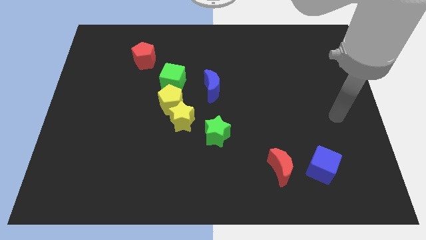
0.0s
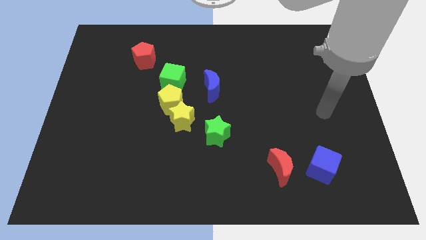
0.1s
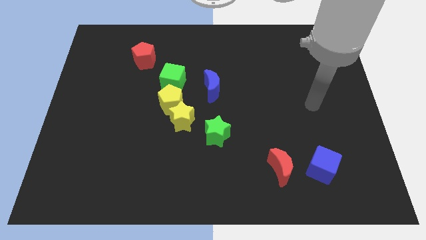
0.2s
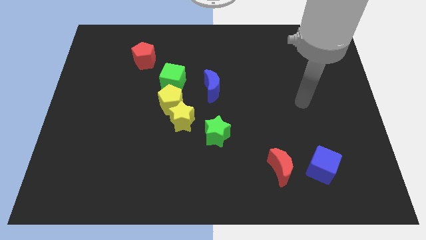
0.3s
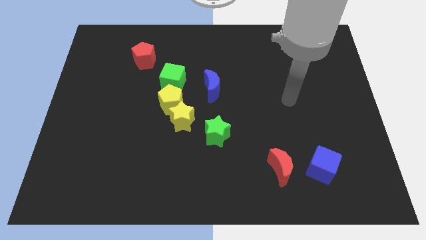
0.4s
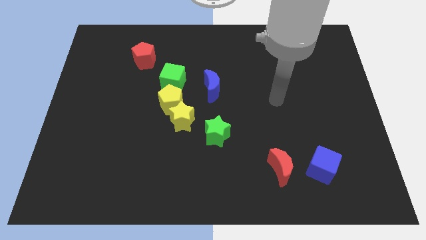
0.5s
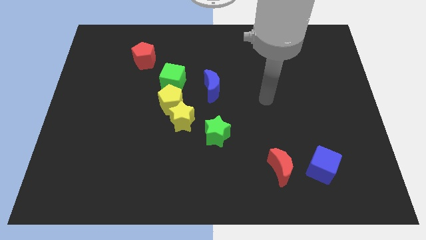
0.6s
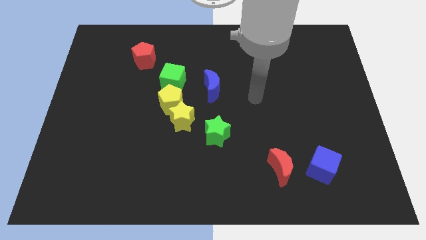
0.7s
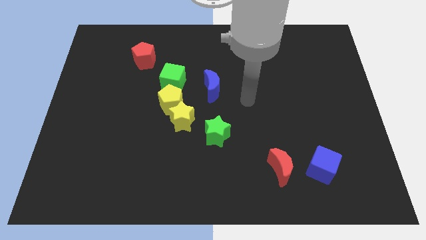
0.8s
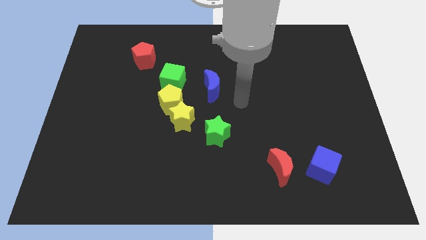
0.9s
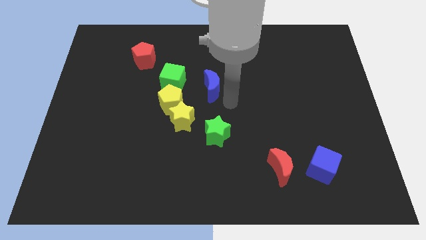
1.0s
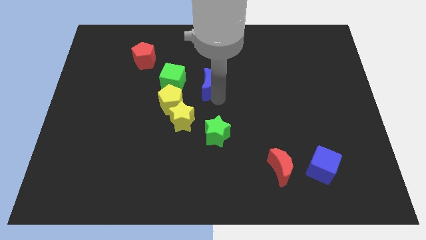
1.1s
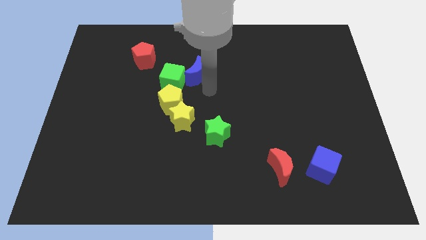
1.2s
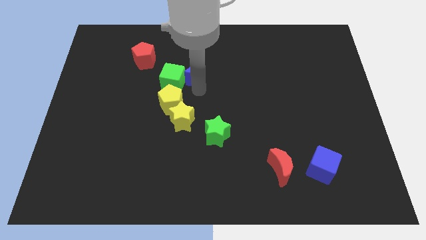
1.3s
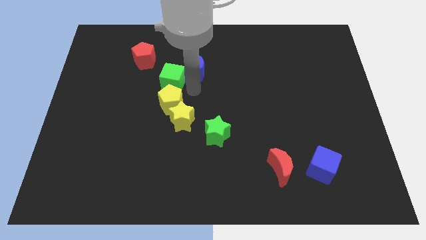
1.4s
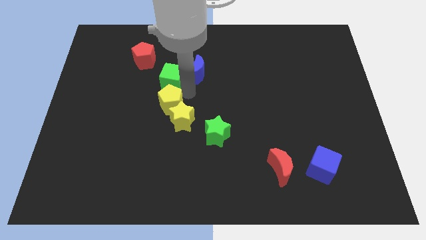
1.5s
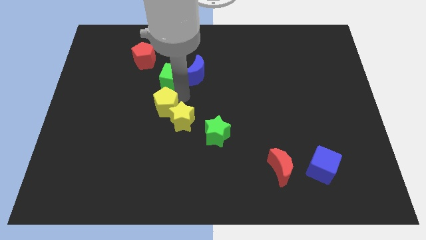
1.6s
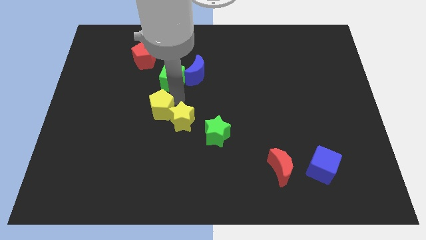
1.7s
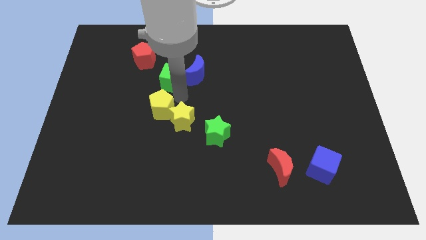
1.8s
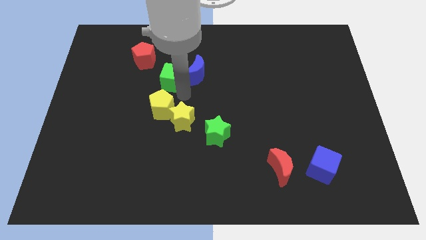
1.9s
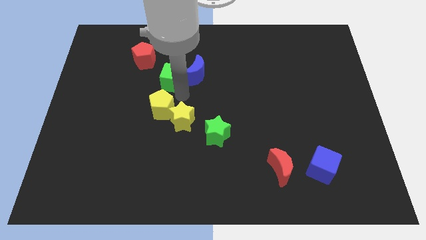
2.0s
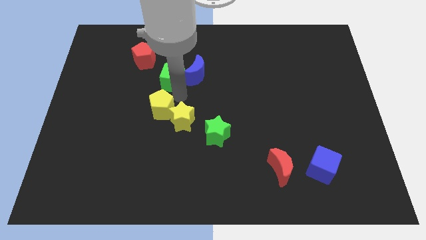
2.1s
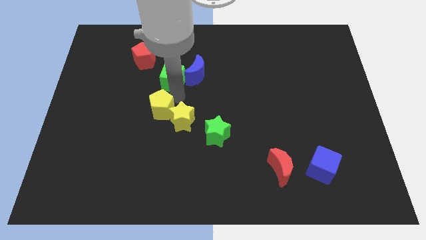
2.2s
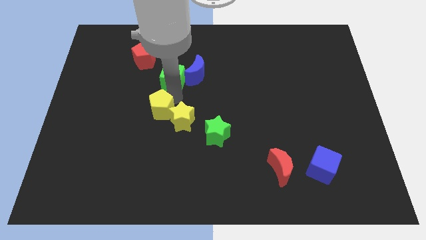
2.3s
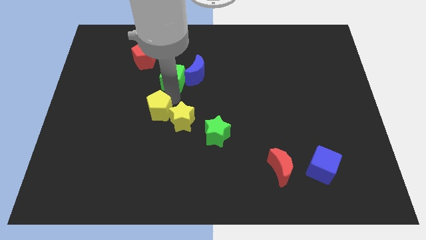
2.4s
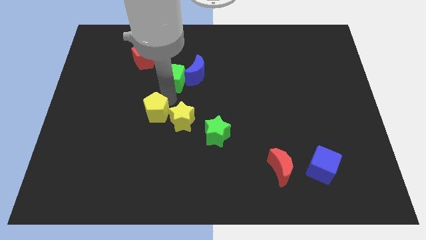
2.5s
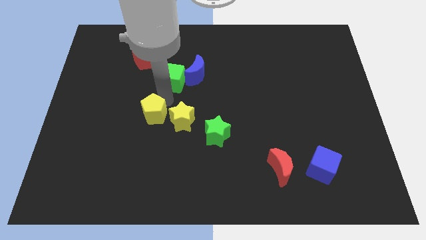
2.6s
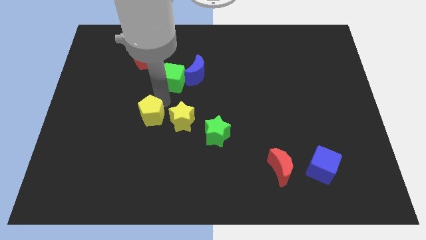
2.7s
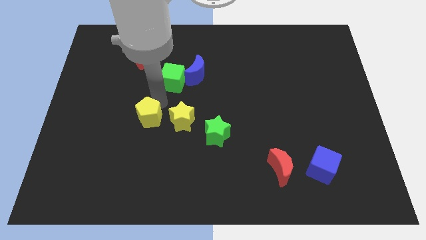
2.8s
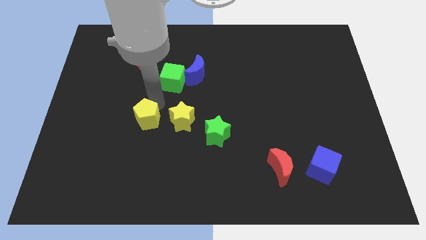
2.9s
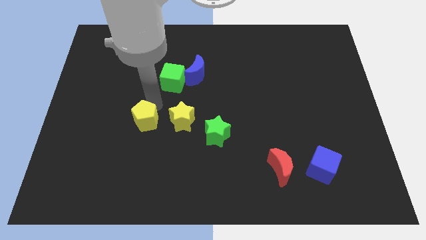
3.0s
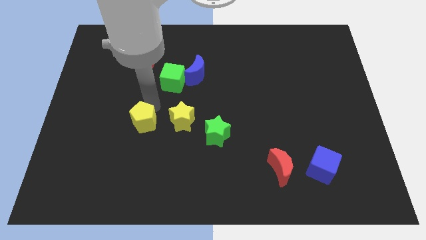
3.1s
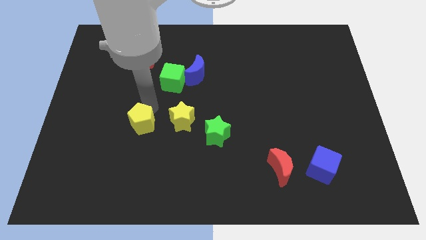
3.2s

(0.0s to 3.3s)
move the yellow pentagon away from the yellow star and green cube

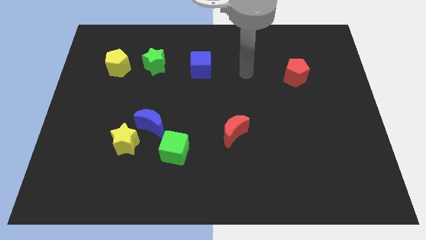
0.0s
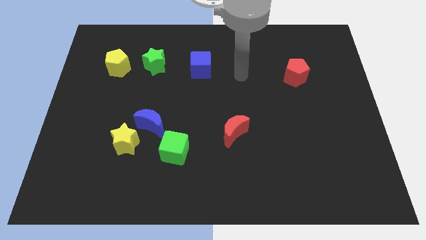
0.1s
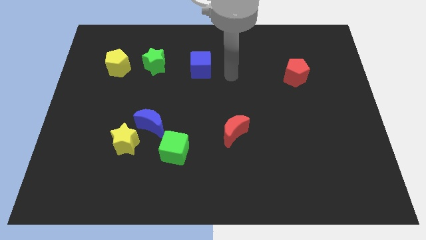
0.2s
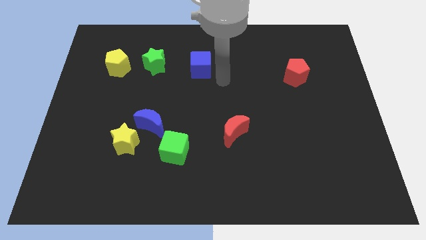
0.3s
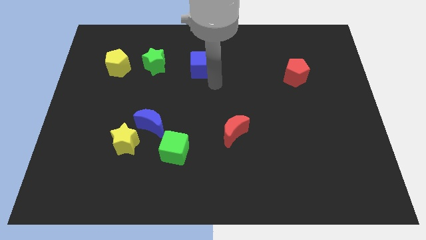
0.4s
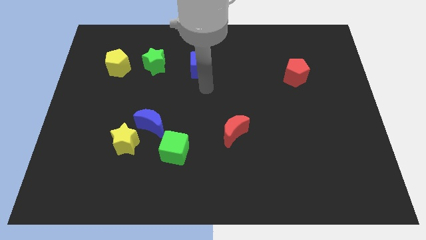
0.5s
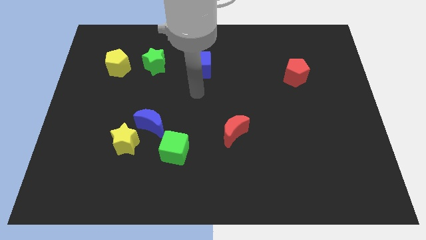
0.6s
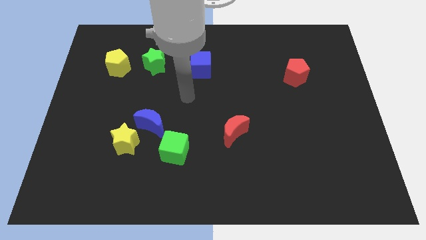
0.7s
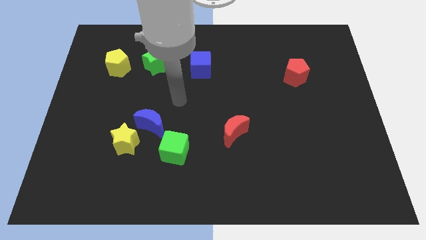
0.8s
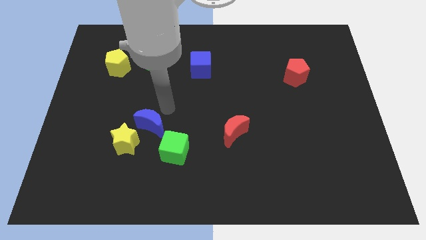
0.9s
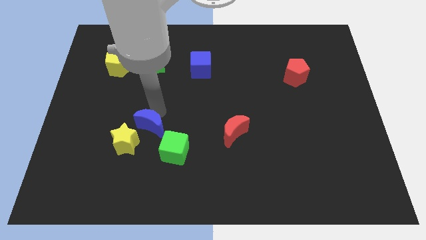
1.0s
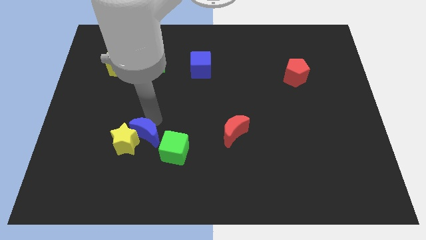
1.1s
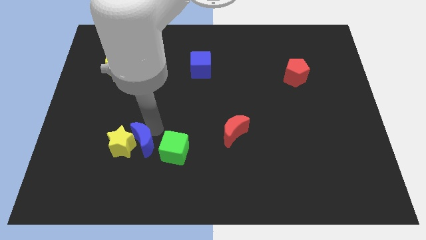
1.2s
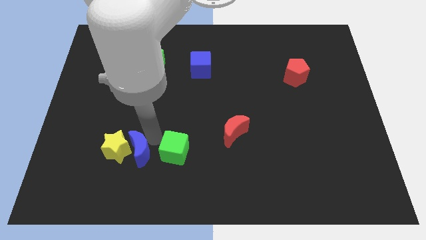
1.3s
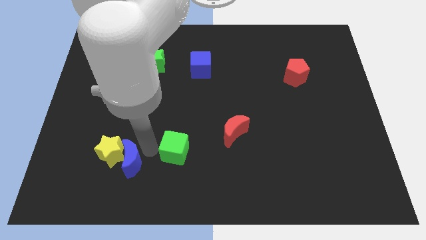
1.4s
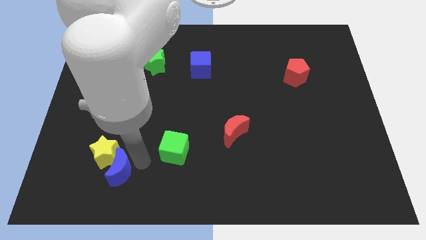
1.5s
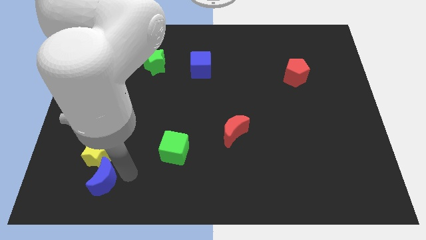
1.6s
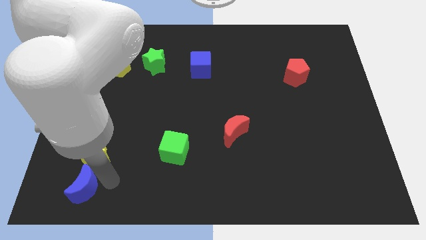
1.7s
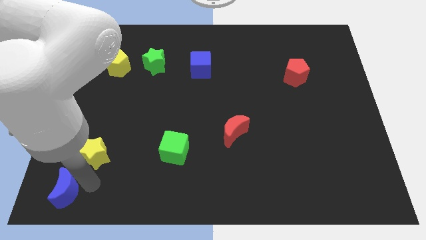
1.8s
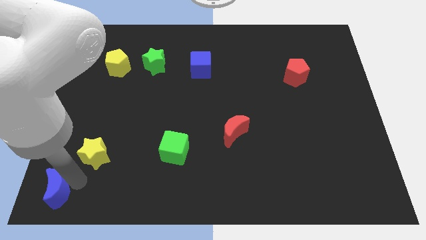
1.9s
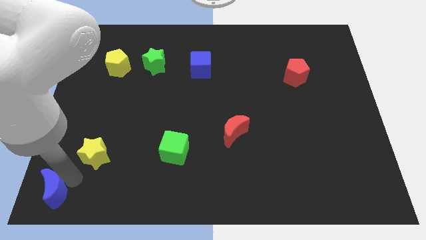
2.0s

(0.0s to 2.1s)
separate the yellow star from the blue moon

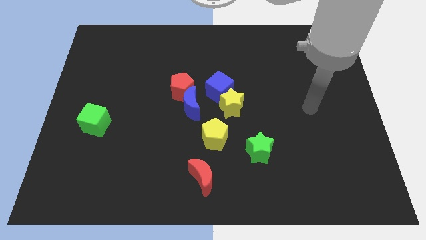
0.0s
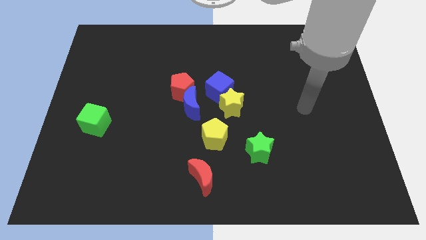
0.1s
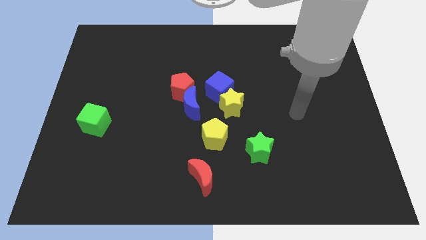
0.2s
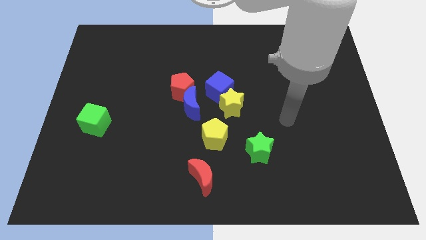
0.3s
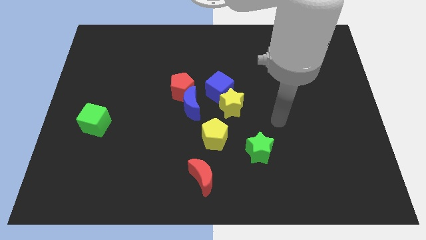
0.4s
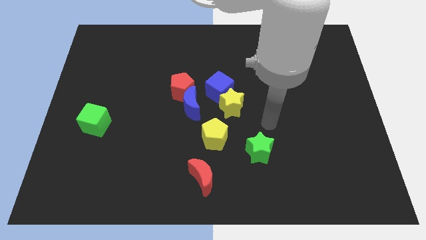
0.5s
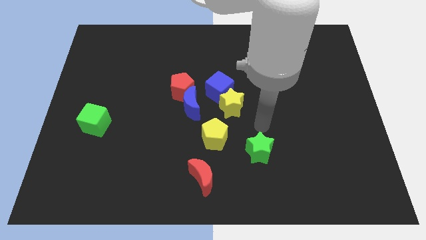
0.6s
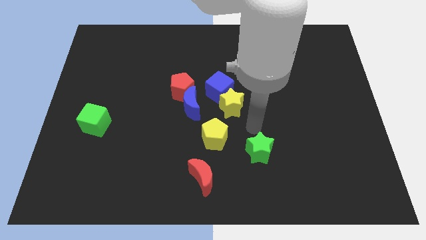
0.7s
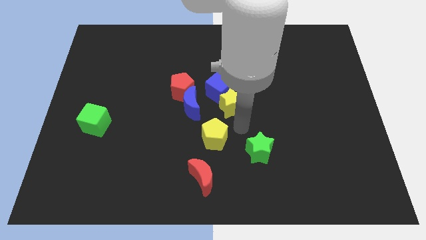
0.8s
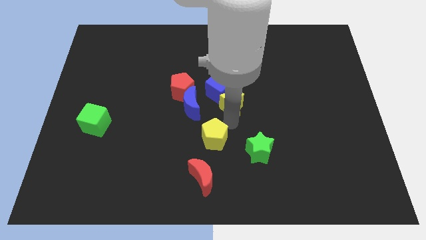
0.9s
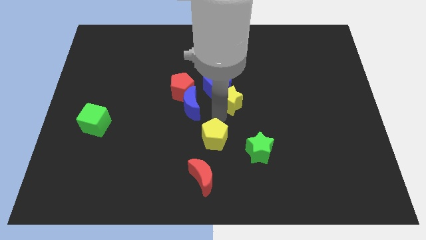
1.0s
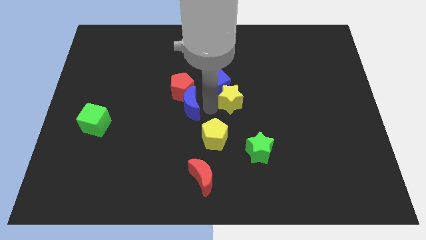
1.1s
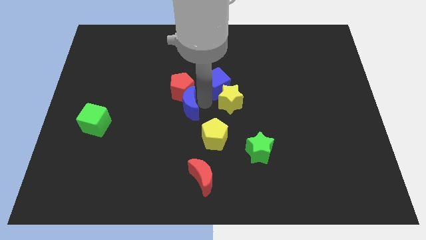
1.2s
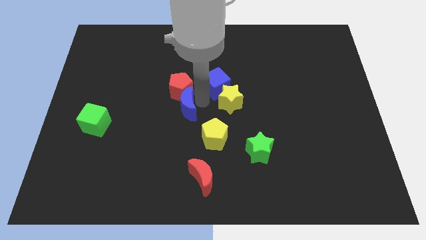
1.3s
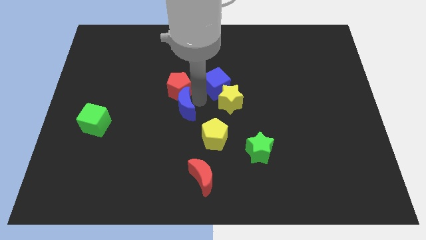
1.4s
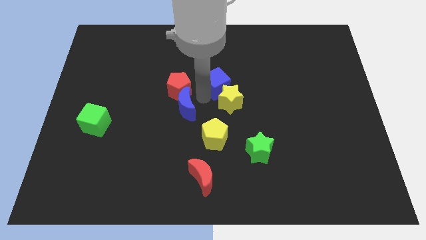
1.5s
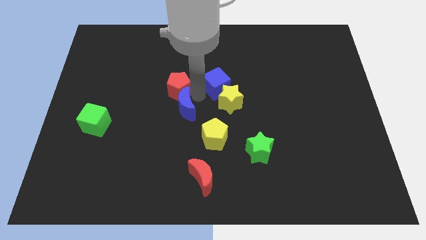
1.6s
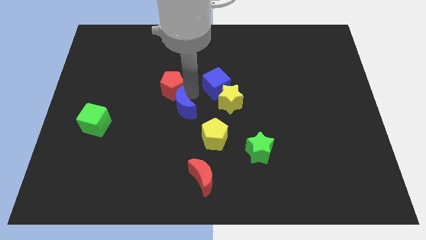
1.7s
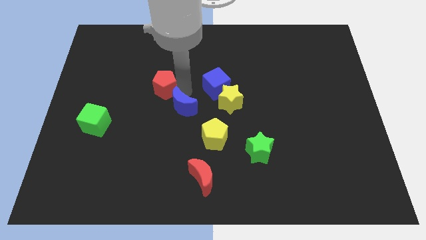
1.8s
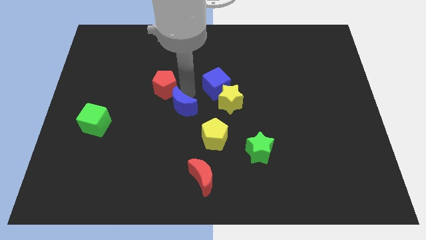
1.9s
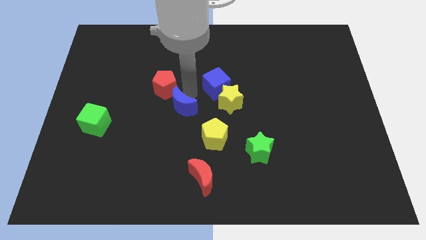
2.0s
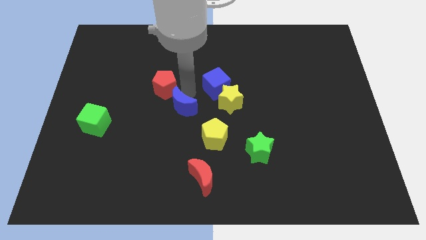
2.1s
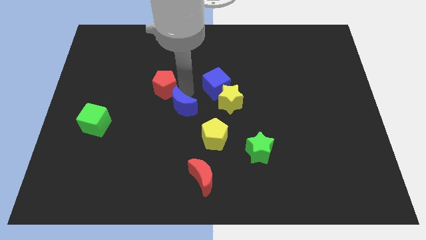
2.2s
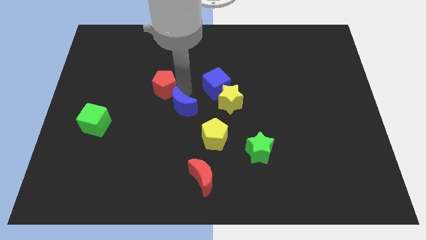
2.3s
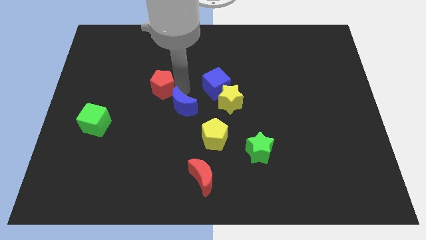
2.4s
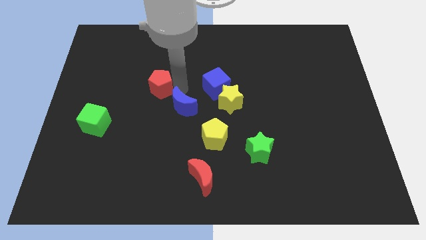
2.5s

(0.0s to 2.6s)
pull the red pentagon apart from the blue moon and blue cube

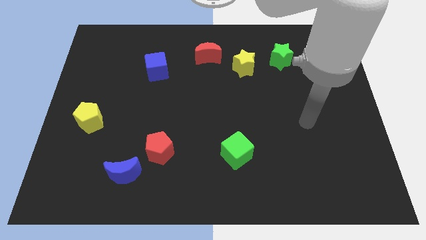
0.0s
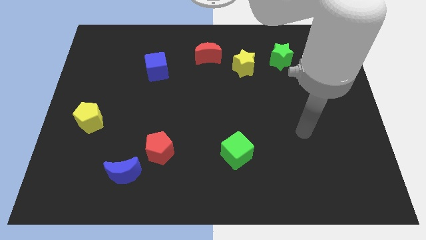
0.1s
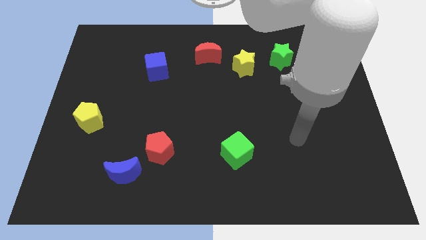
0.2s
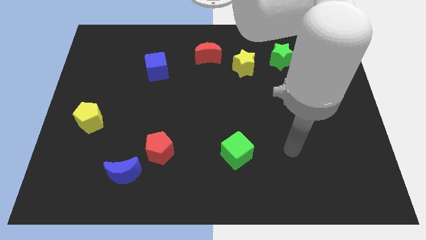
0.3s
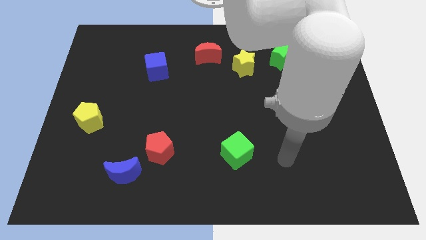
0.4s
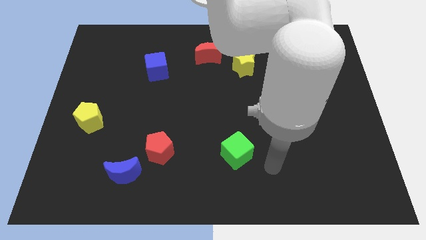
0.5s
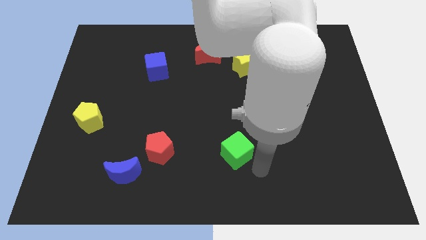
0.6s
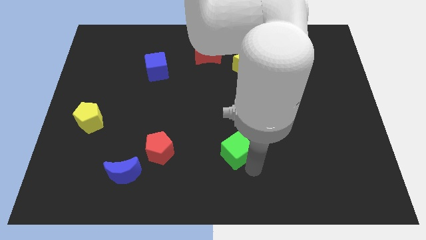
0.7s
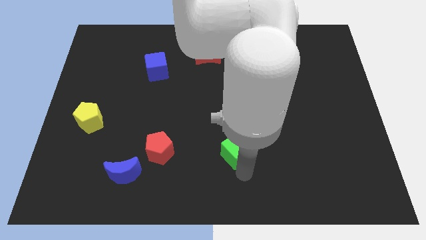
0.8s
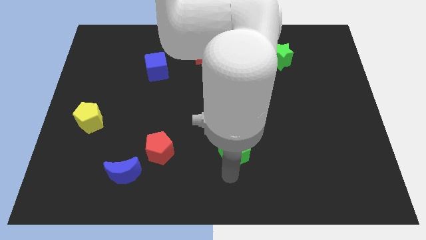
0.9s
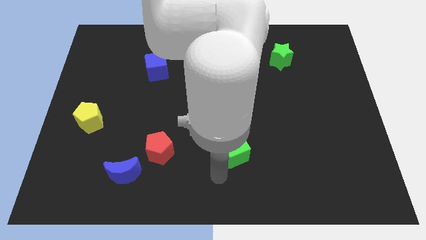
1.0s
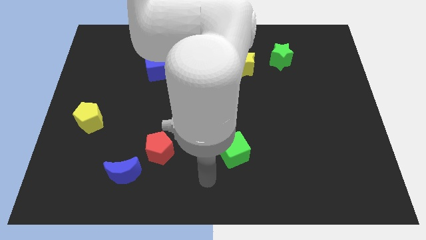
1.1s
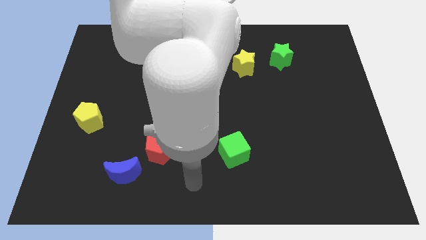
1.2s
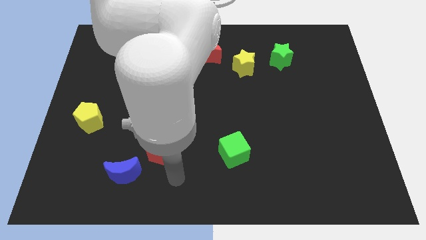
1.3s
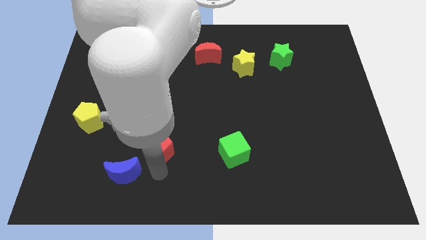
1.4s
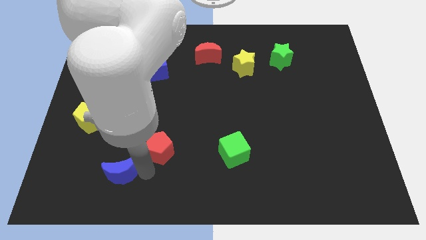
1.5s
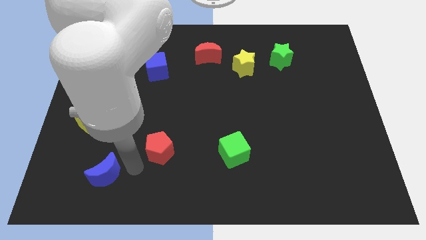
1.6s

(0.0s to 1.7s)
pull the red pentagon apart from the blue moon
